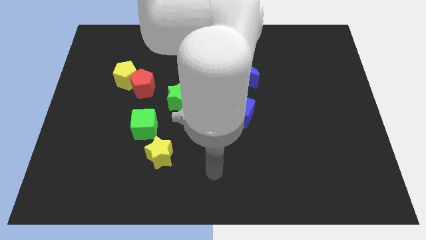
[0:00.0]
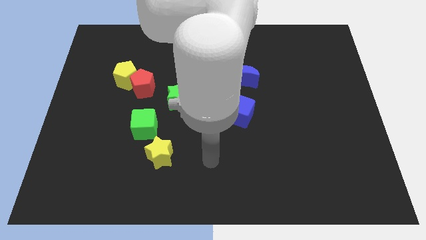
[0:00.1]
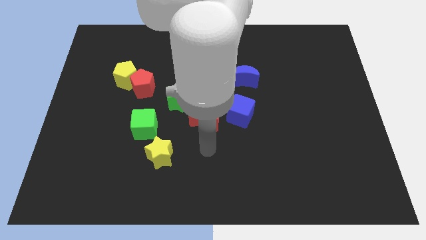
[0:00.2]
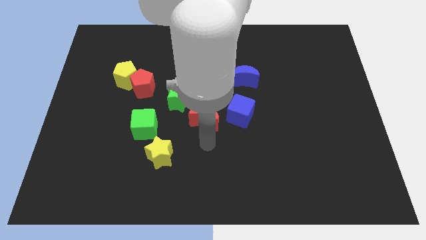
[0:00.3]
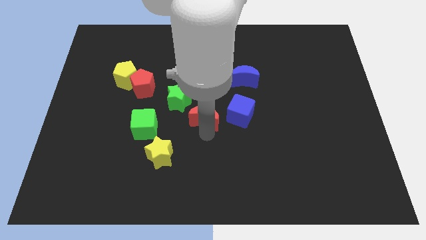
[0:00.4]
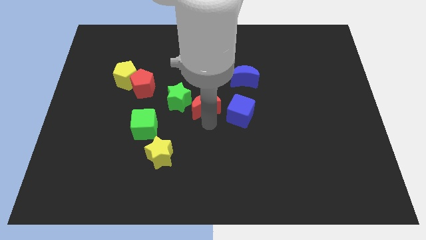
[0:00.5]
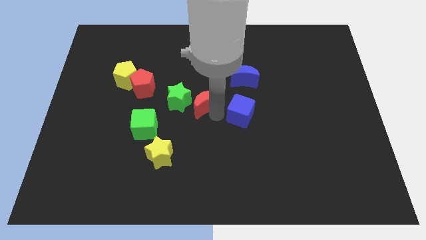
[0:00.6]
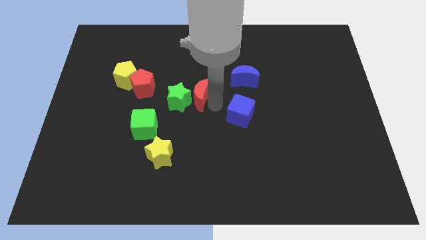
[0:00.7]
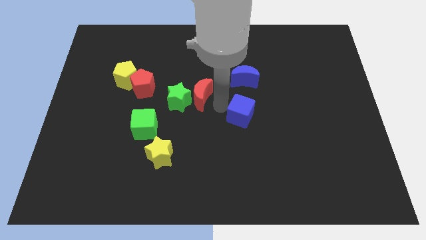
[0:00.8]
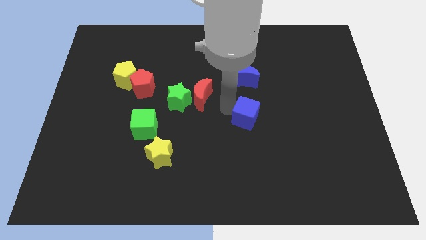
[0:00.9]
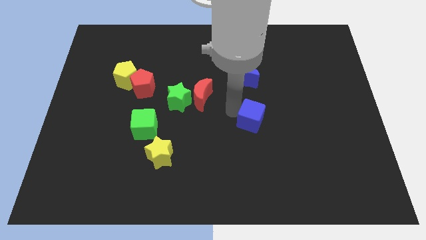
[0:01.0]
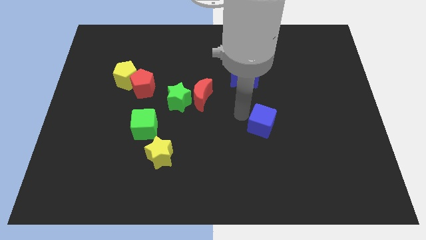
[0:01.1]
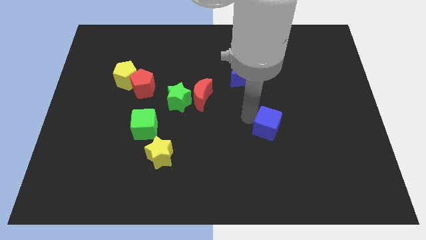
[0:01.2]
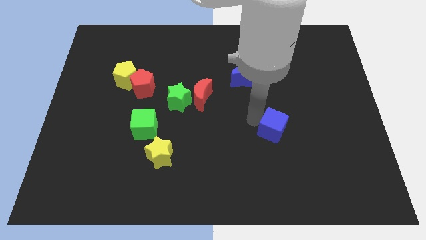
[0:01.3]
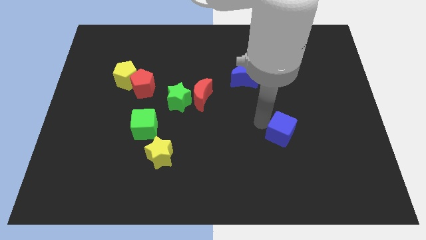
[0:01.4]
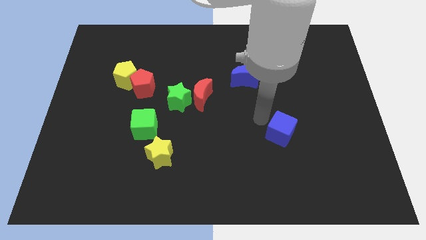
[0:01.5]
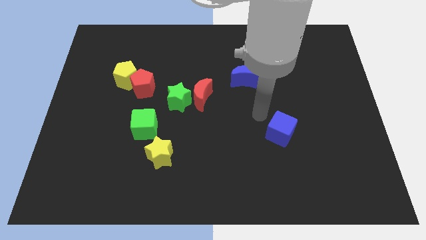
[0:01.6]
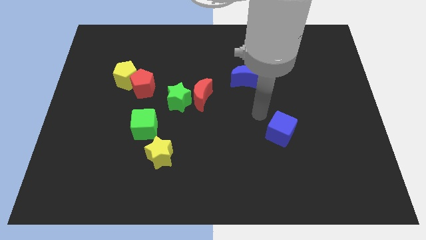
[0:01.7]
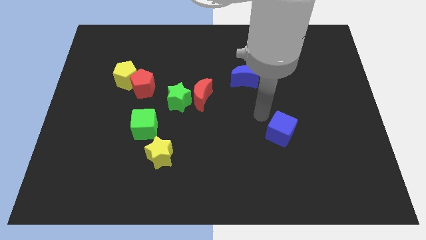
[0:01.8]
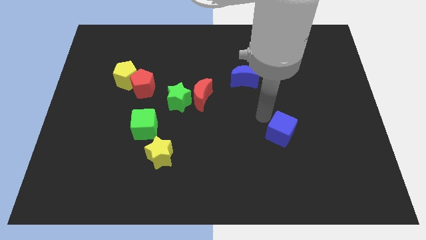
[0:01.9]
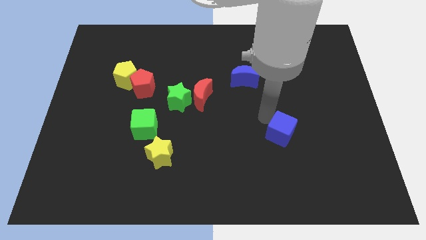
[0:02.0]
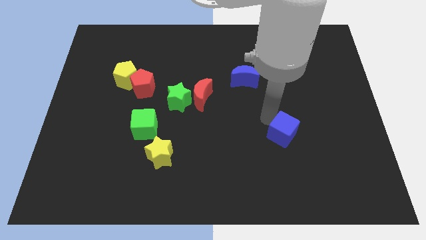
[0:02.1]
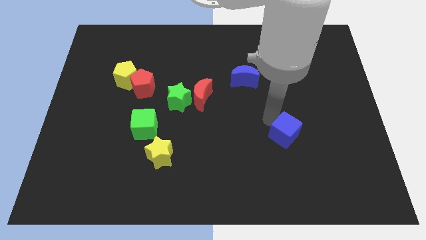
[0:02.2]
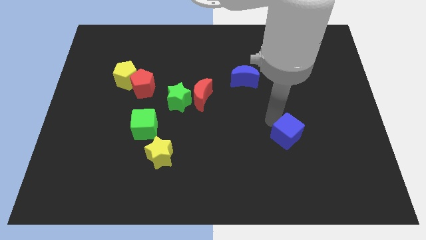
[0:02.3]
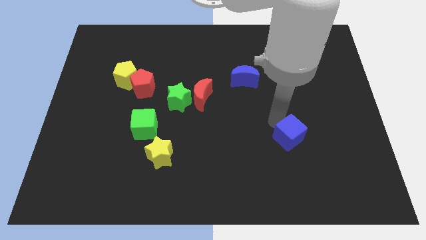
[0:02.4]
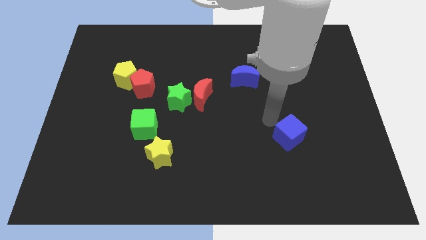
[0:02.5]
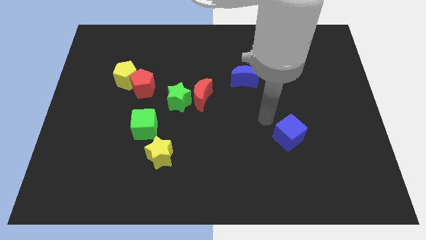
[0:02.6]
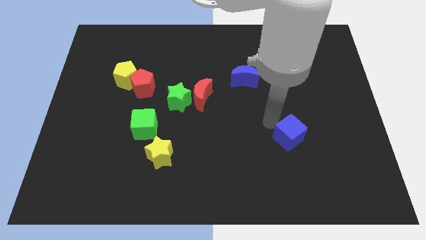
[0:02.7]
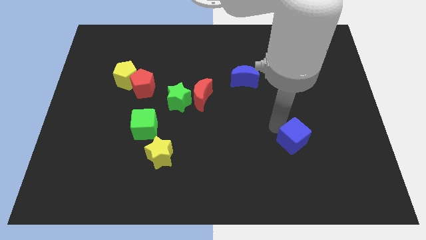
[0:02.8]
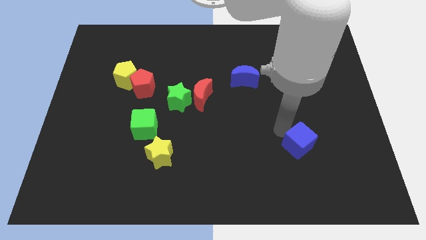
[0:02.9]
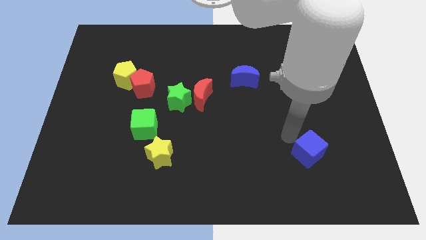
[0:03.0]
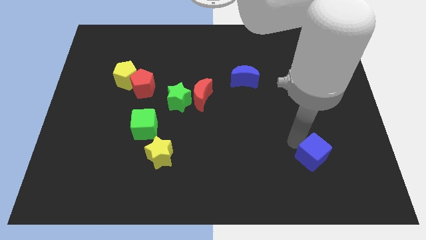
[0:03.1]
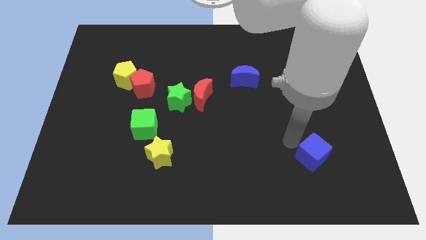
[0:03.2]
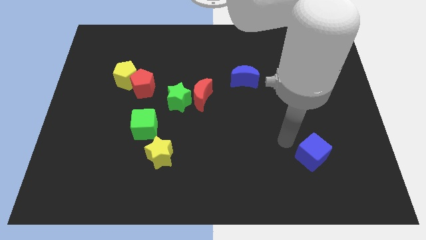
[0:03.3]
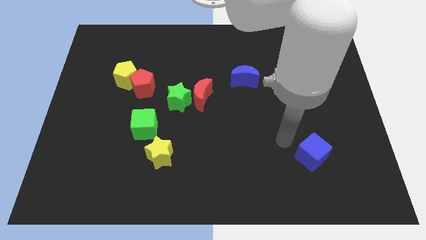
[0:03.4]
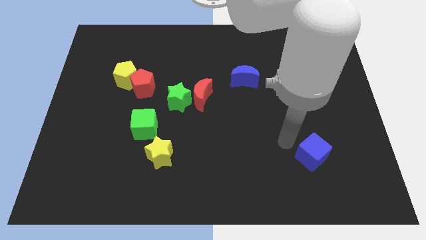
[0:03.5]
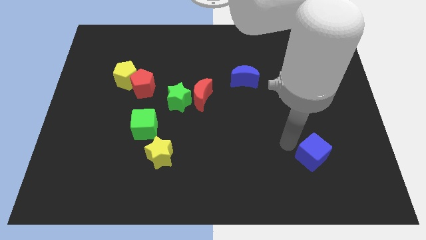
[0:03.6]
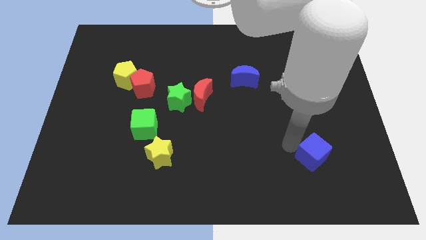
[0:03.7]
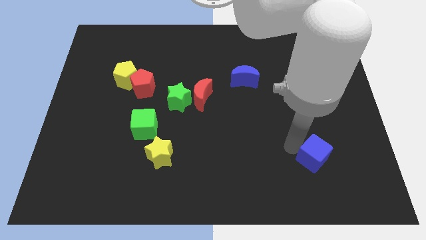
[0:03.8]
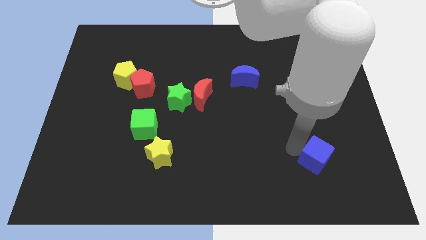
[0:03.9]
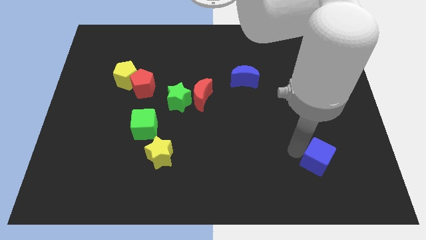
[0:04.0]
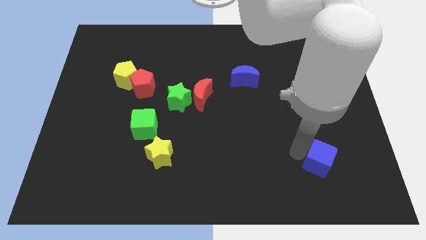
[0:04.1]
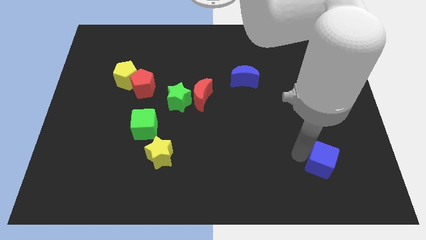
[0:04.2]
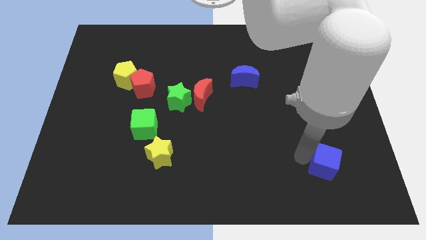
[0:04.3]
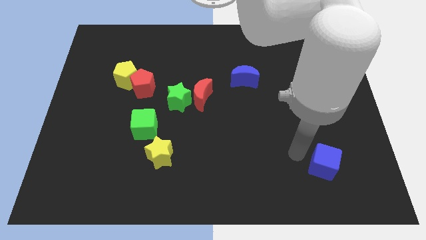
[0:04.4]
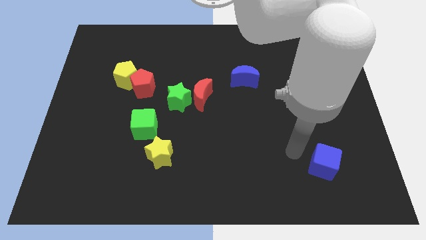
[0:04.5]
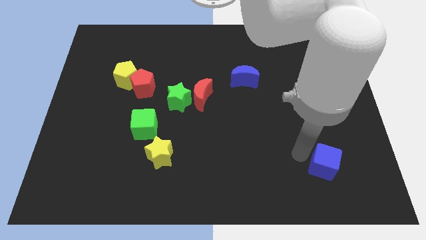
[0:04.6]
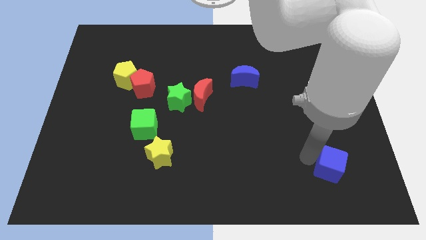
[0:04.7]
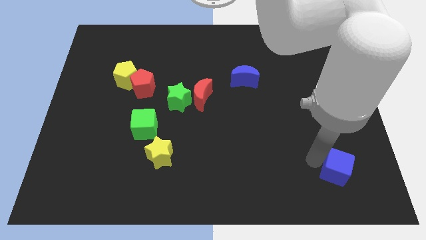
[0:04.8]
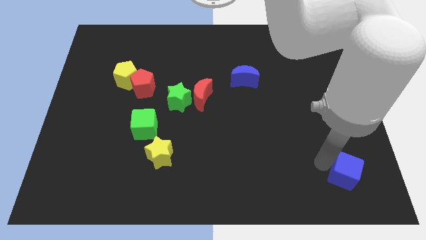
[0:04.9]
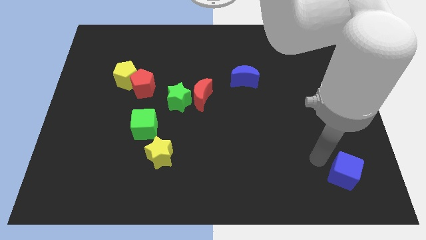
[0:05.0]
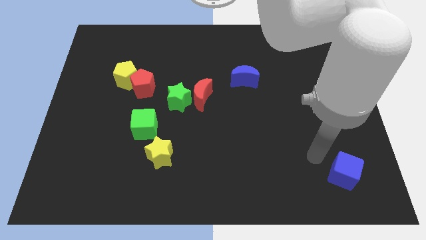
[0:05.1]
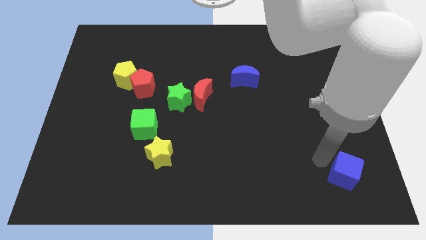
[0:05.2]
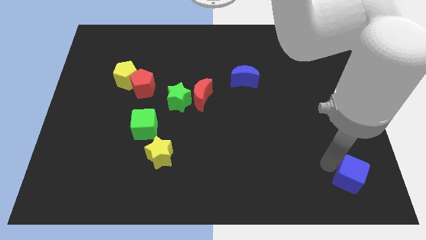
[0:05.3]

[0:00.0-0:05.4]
put the blue cube to the bottom right of the board
